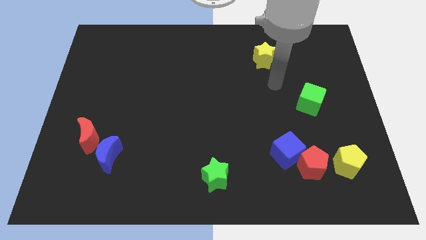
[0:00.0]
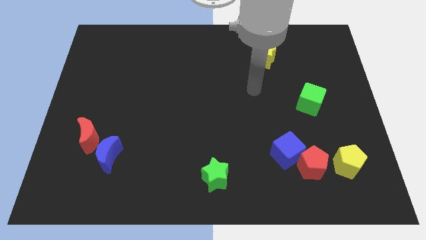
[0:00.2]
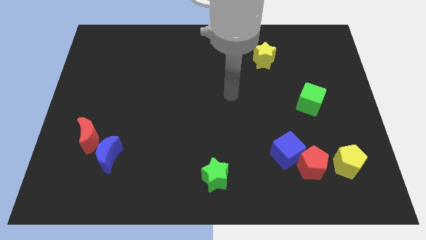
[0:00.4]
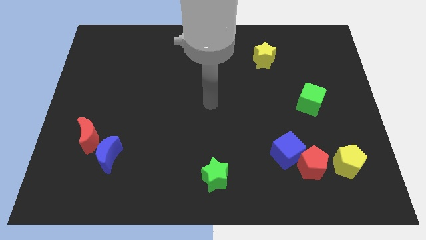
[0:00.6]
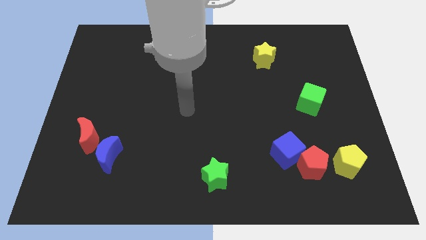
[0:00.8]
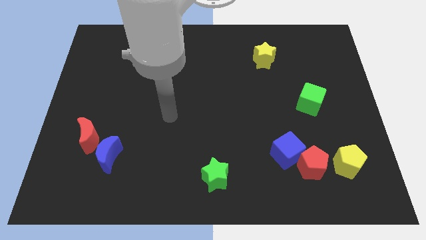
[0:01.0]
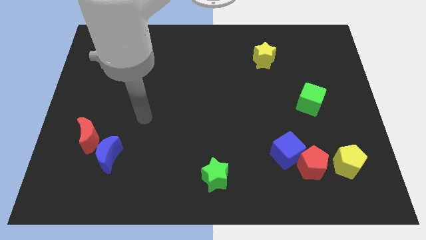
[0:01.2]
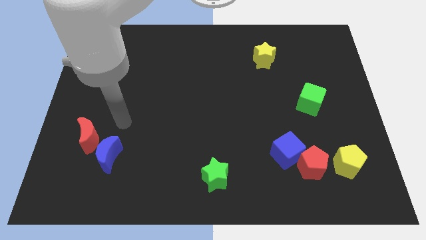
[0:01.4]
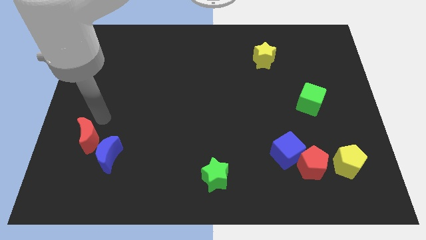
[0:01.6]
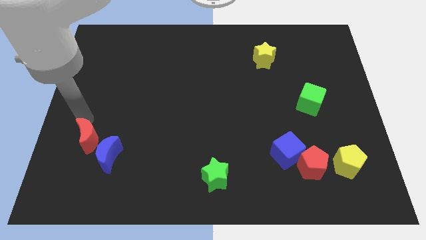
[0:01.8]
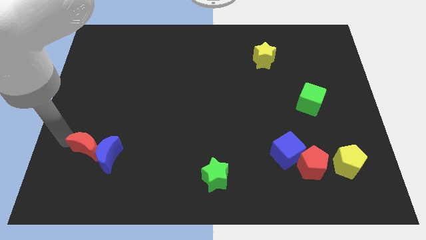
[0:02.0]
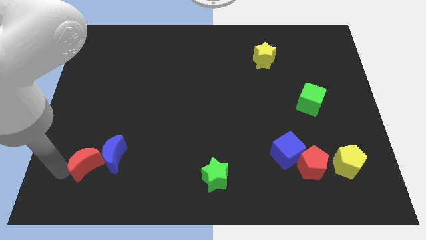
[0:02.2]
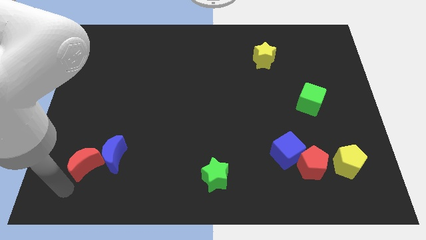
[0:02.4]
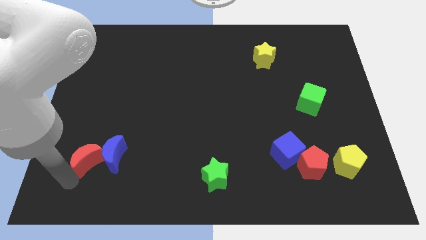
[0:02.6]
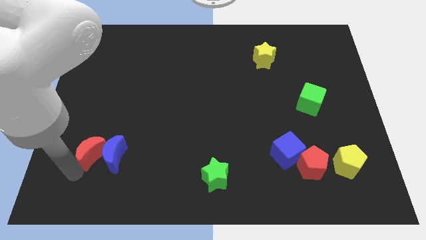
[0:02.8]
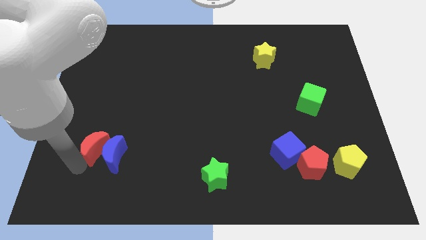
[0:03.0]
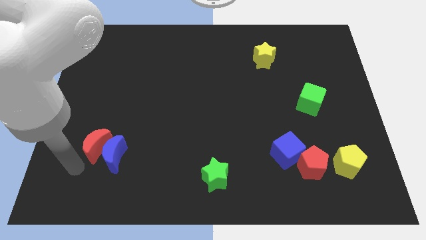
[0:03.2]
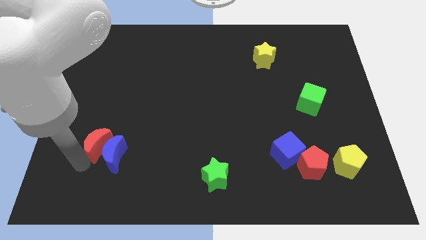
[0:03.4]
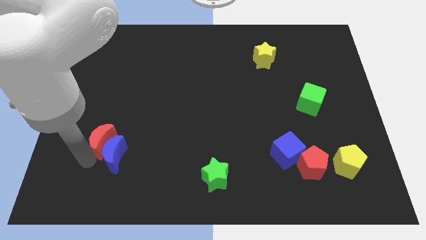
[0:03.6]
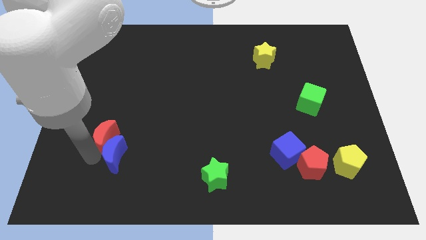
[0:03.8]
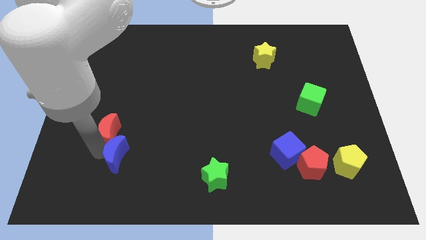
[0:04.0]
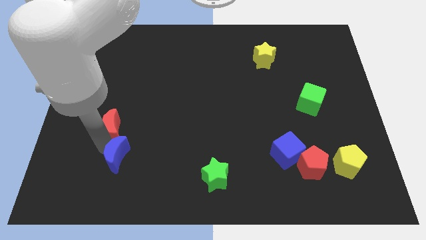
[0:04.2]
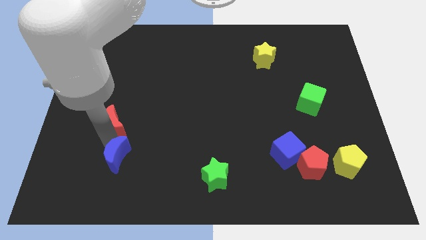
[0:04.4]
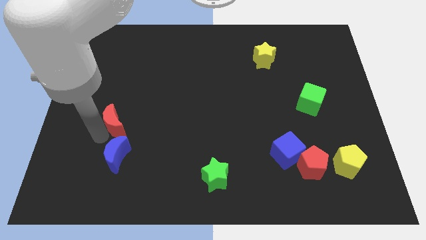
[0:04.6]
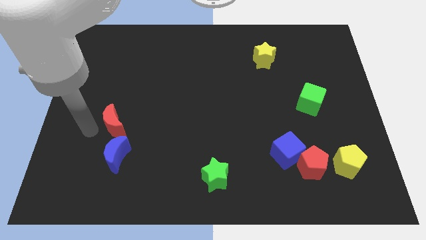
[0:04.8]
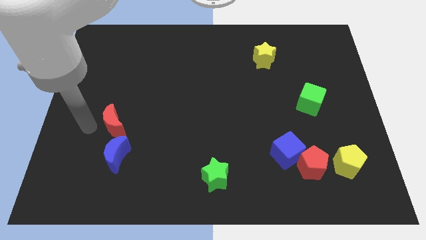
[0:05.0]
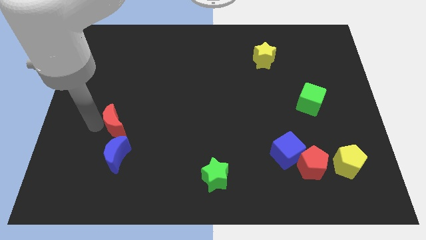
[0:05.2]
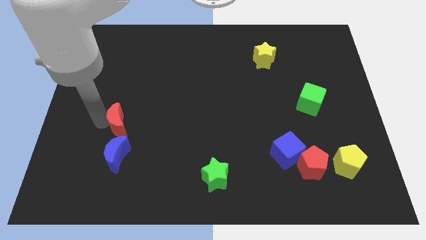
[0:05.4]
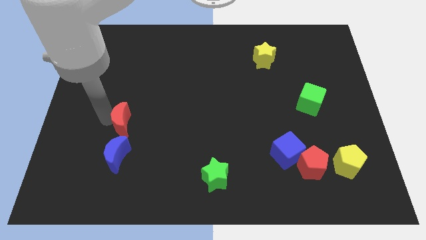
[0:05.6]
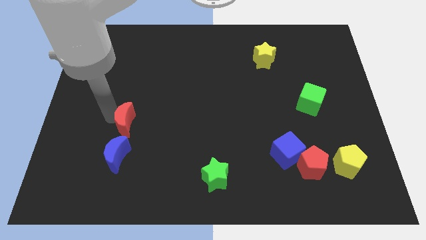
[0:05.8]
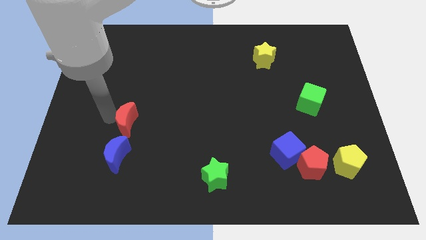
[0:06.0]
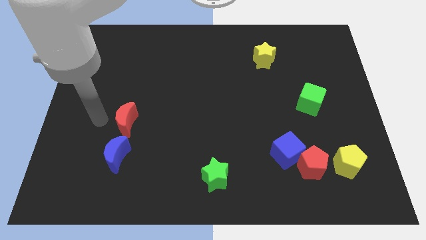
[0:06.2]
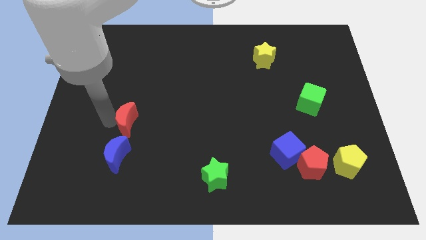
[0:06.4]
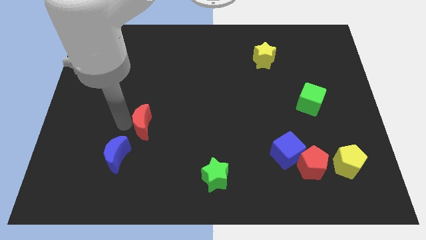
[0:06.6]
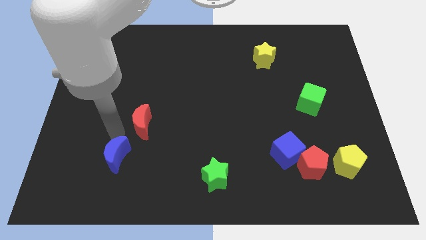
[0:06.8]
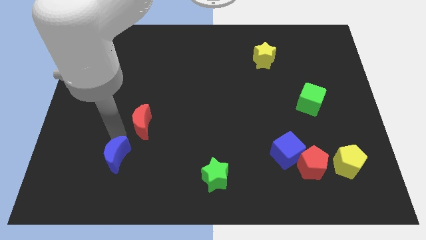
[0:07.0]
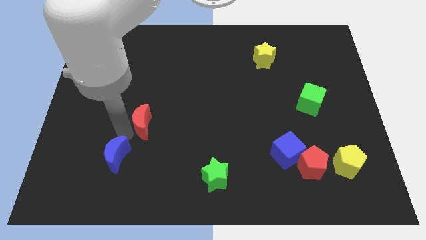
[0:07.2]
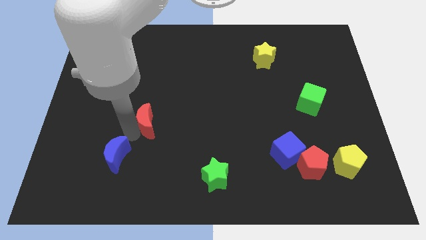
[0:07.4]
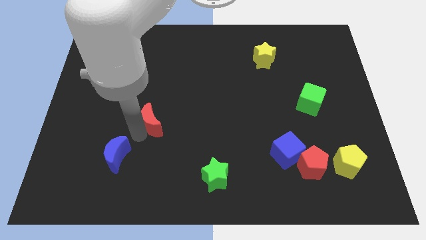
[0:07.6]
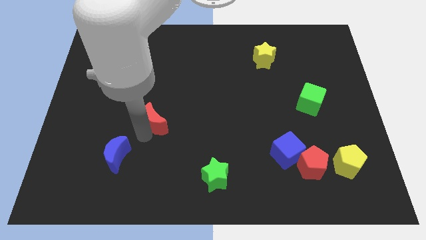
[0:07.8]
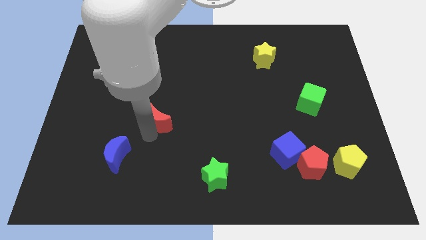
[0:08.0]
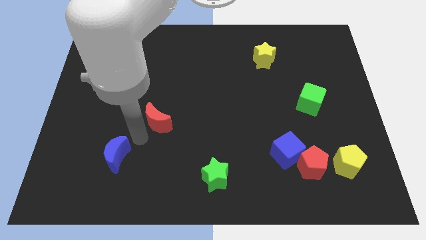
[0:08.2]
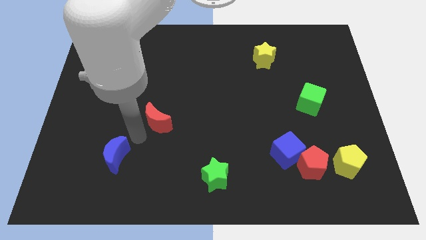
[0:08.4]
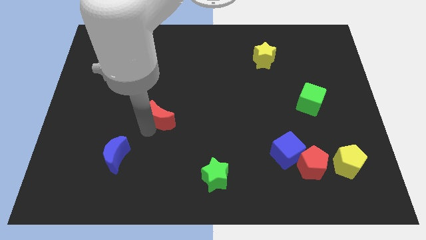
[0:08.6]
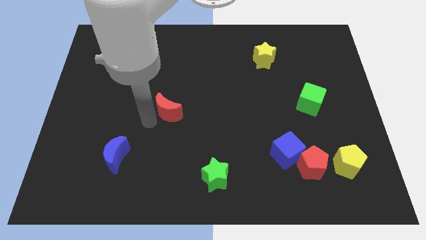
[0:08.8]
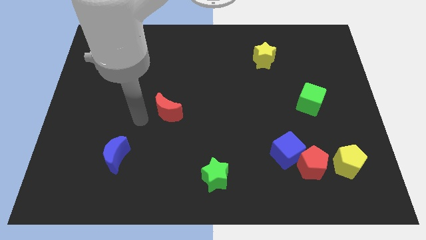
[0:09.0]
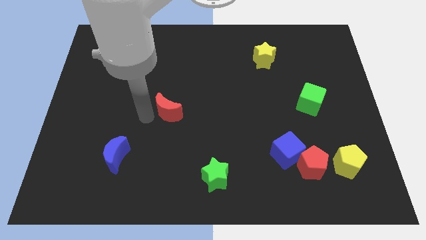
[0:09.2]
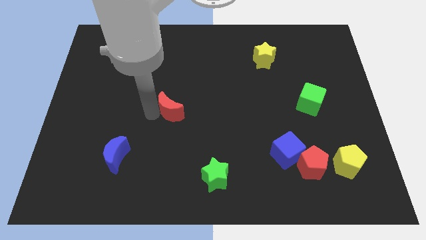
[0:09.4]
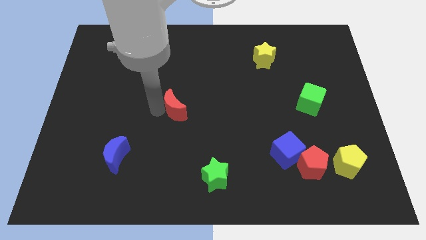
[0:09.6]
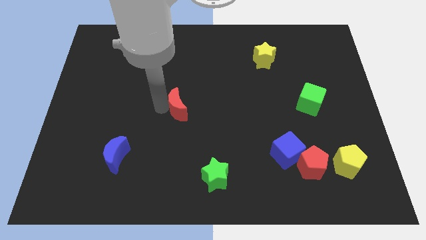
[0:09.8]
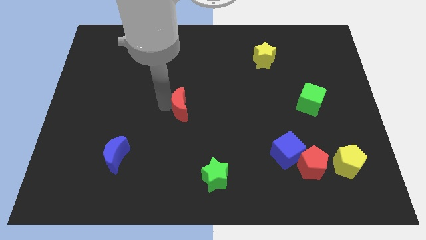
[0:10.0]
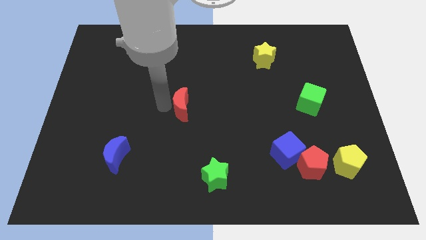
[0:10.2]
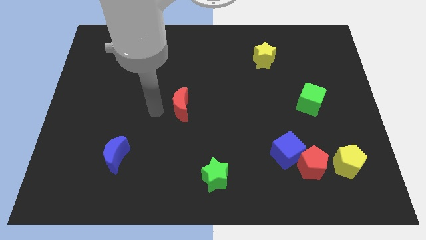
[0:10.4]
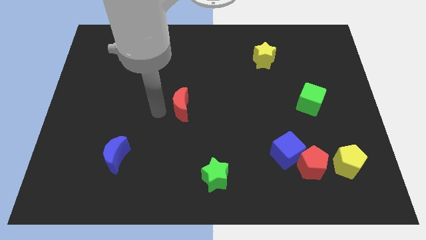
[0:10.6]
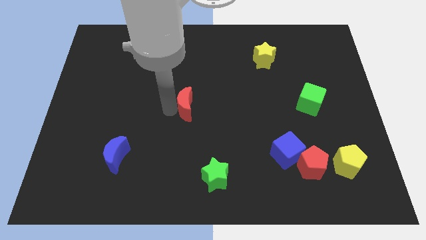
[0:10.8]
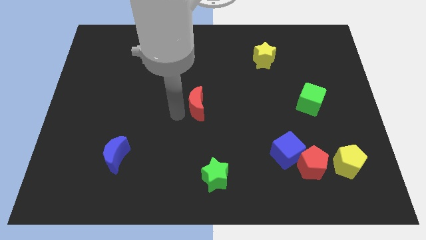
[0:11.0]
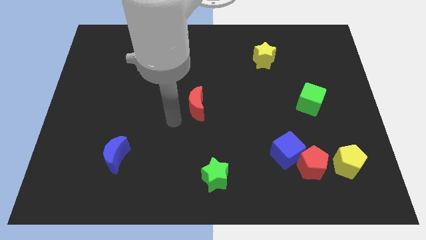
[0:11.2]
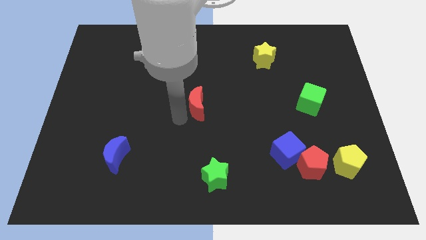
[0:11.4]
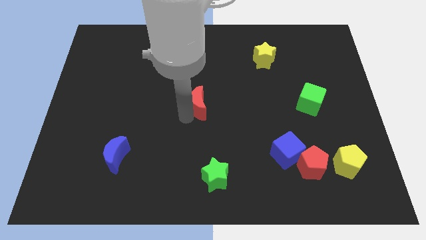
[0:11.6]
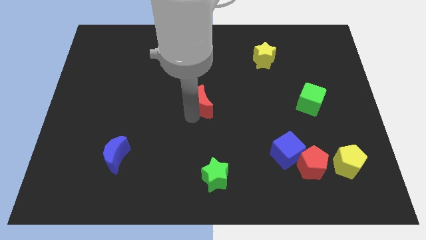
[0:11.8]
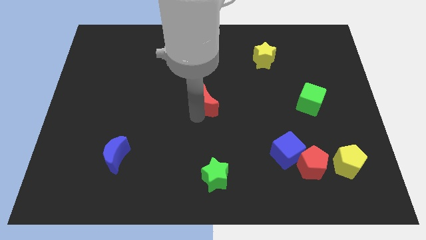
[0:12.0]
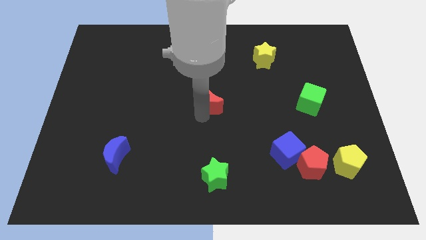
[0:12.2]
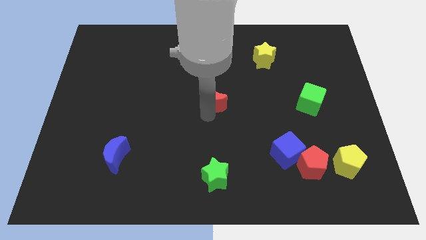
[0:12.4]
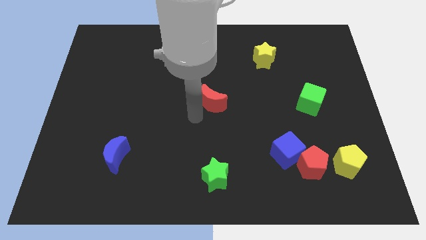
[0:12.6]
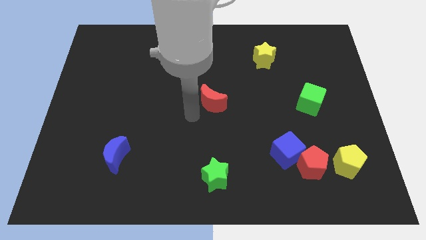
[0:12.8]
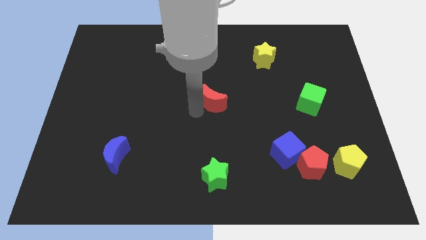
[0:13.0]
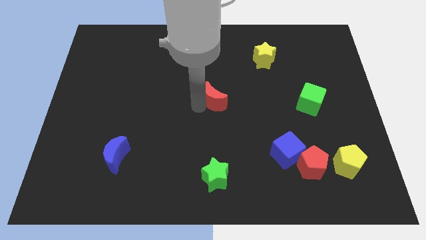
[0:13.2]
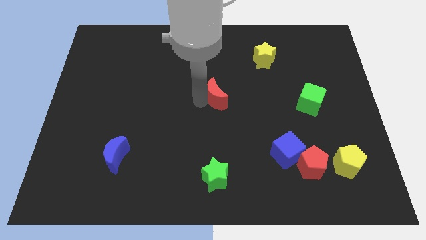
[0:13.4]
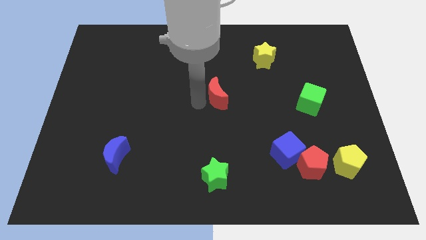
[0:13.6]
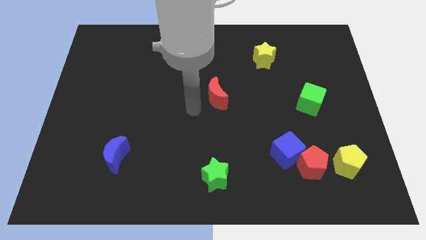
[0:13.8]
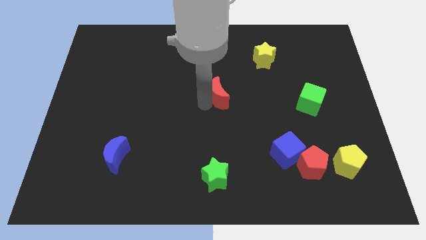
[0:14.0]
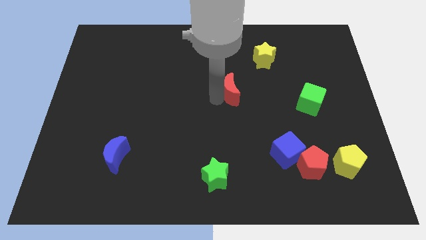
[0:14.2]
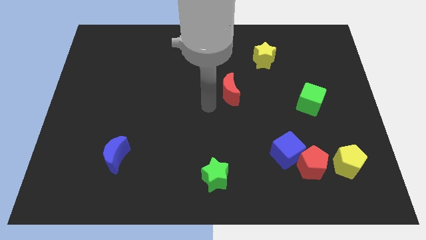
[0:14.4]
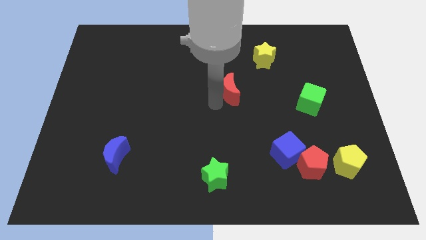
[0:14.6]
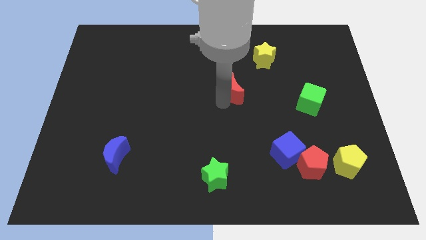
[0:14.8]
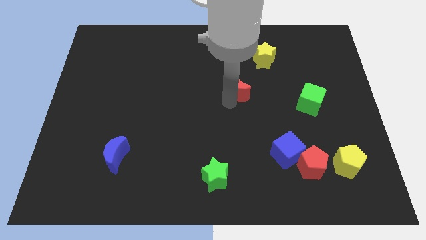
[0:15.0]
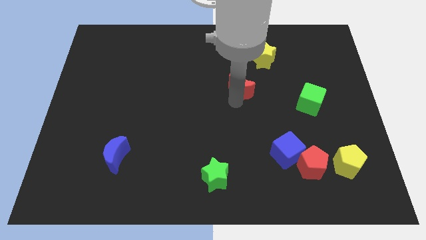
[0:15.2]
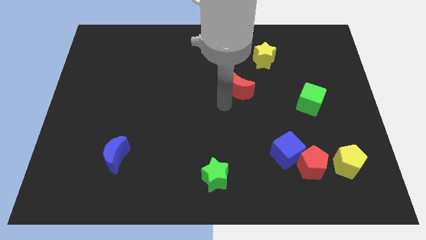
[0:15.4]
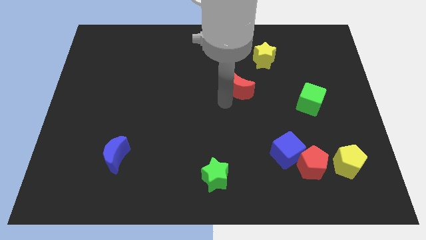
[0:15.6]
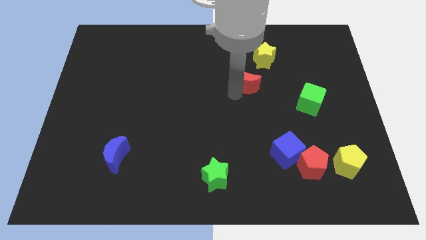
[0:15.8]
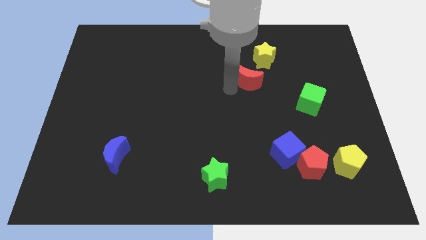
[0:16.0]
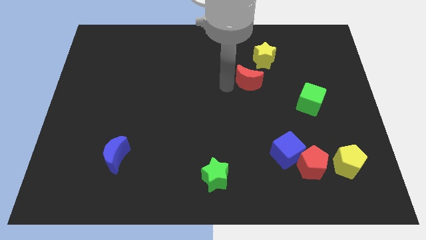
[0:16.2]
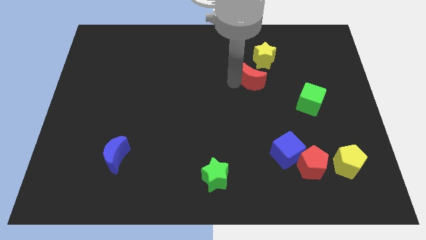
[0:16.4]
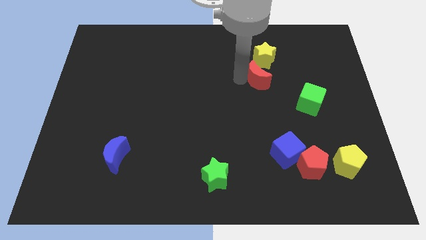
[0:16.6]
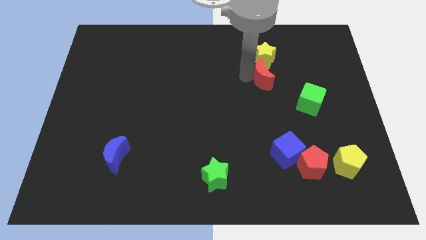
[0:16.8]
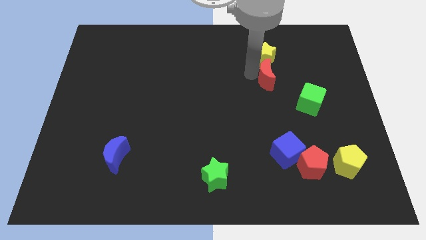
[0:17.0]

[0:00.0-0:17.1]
slide the red moon diagonally down and to the right of the yellow star
